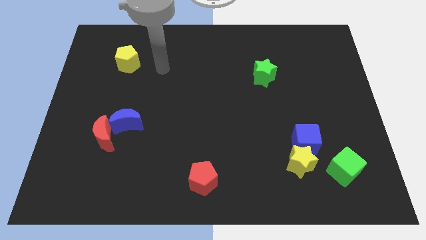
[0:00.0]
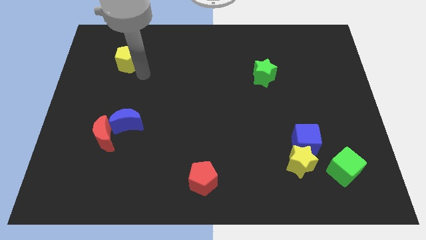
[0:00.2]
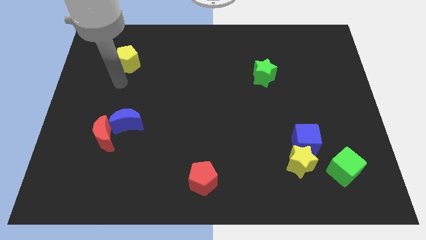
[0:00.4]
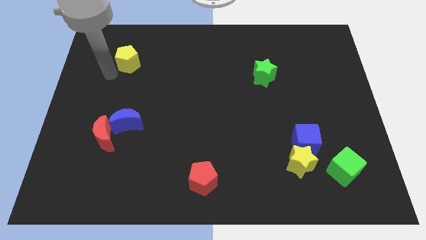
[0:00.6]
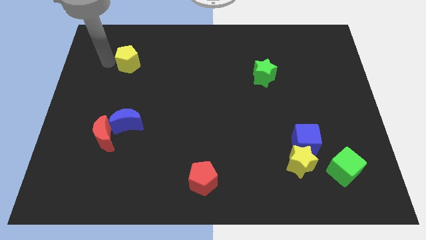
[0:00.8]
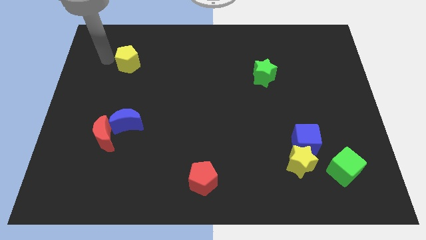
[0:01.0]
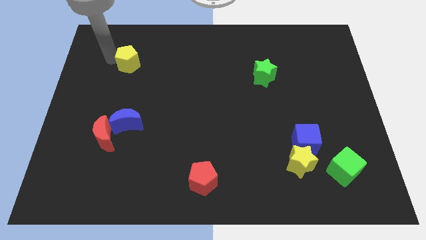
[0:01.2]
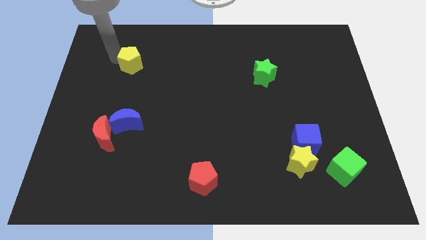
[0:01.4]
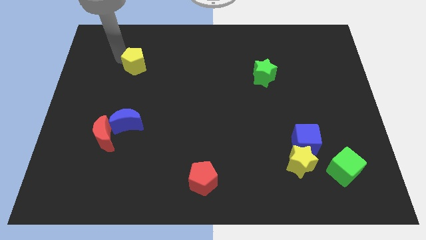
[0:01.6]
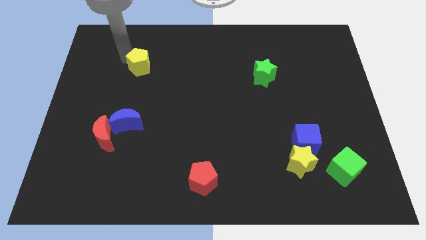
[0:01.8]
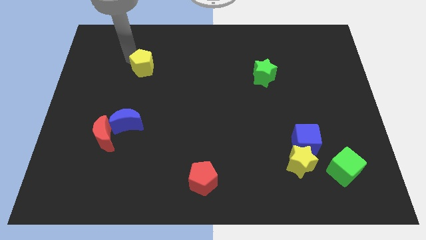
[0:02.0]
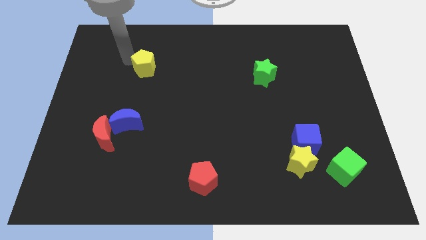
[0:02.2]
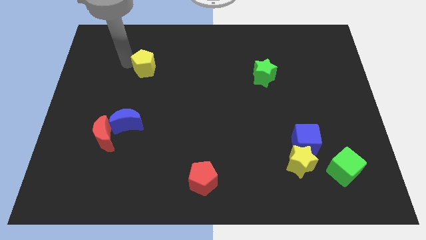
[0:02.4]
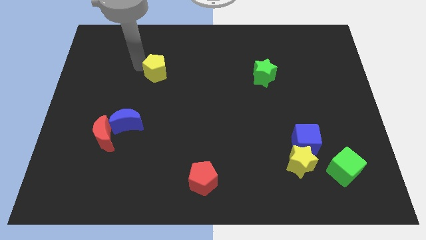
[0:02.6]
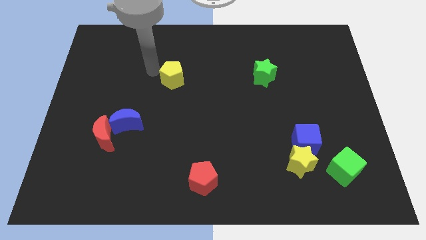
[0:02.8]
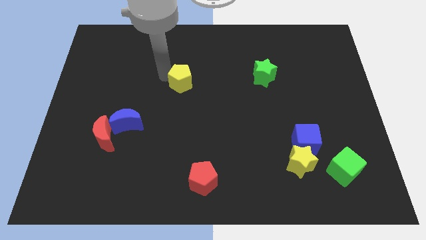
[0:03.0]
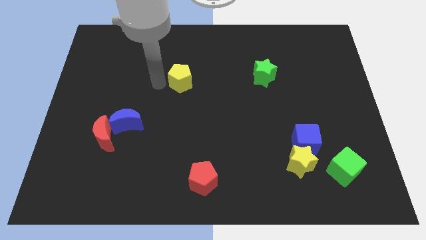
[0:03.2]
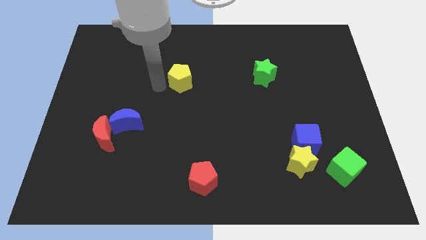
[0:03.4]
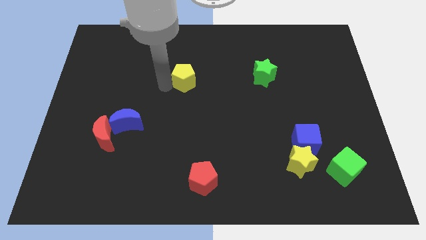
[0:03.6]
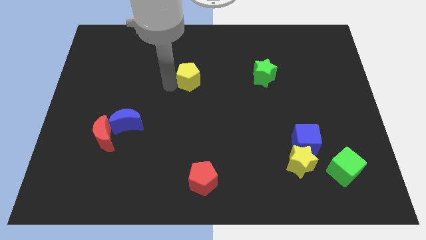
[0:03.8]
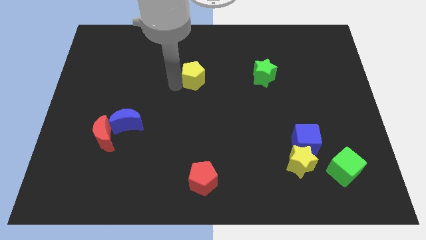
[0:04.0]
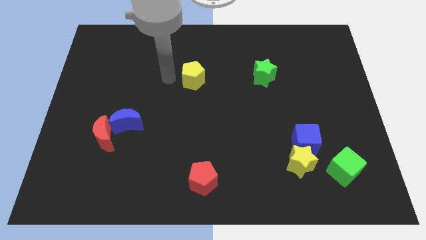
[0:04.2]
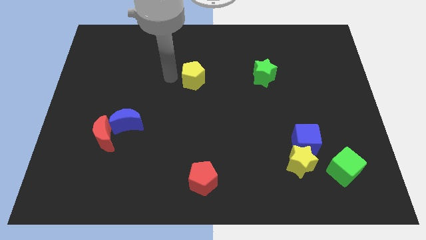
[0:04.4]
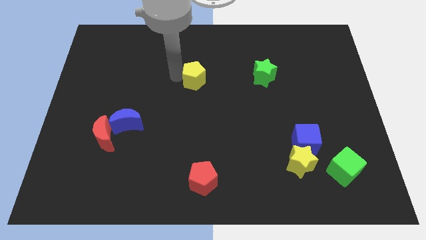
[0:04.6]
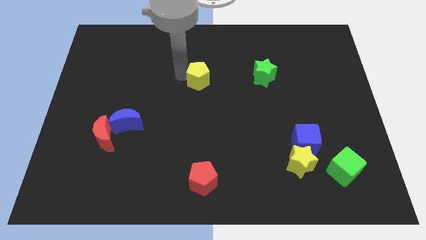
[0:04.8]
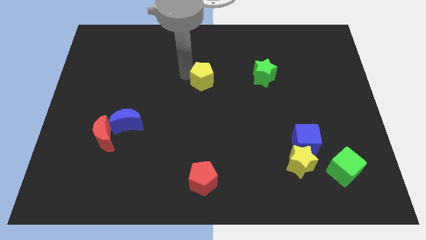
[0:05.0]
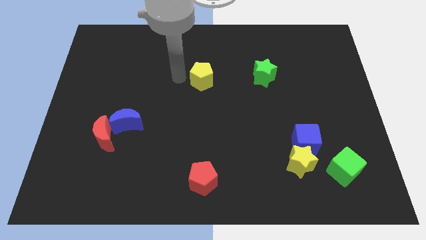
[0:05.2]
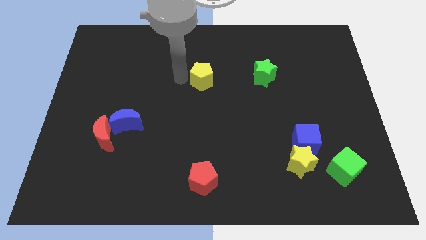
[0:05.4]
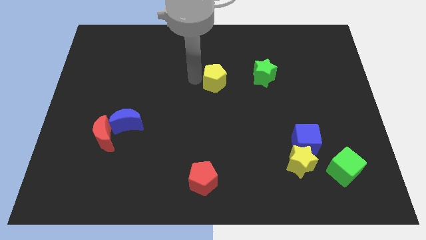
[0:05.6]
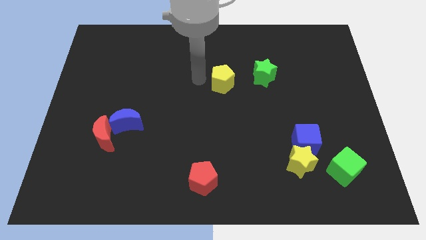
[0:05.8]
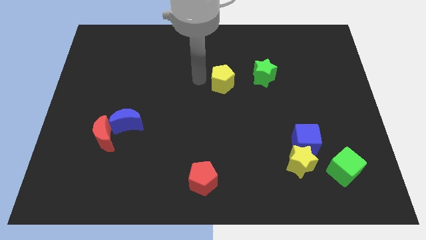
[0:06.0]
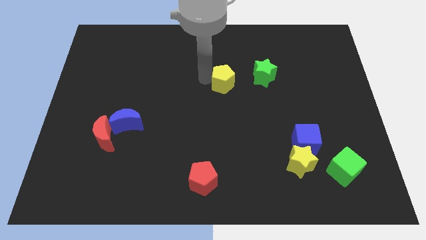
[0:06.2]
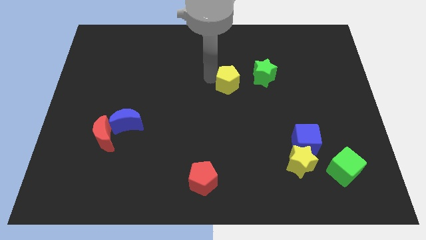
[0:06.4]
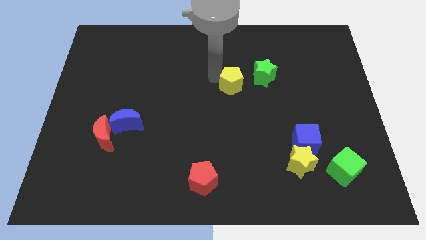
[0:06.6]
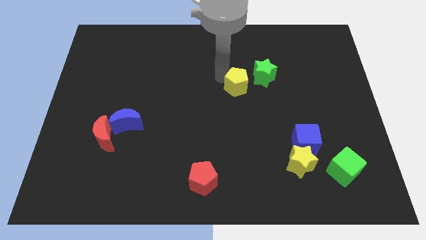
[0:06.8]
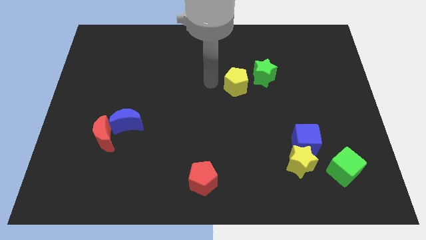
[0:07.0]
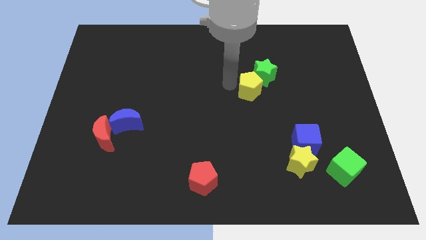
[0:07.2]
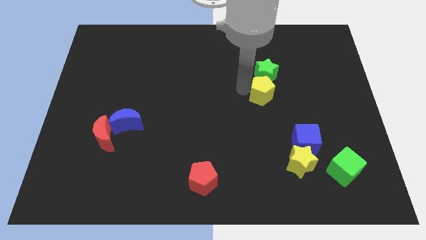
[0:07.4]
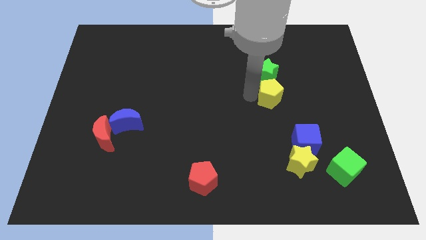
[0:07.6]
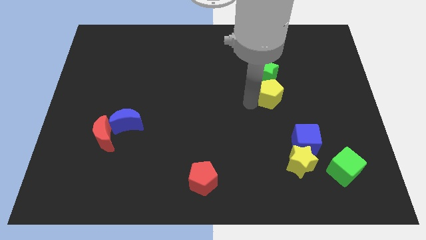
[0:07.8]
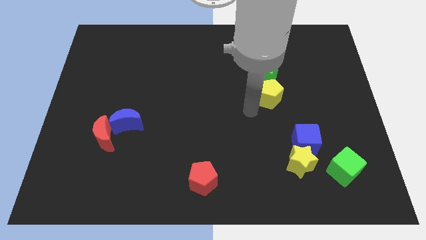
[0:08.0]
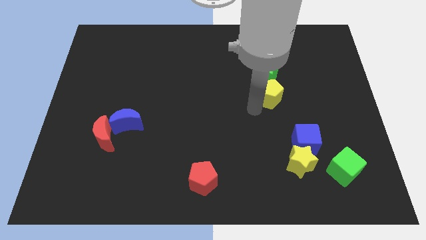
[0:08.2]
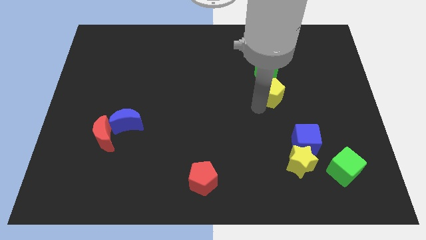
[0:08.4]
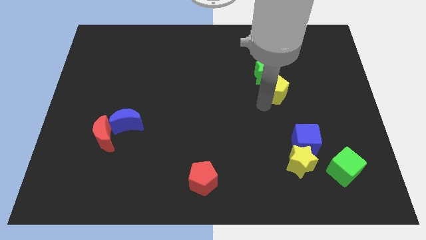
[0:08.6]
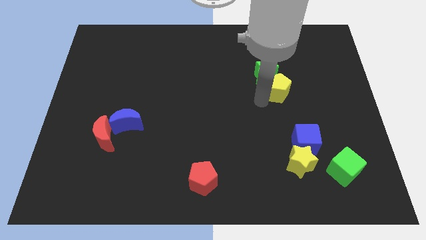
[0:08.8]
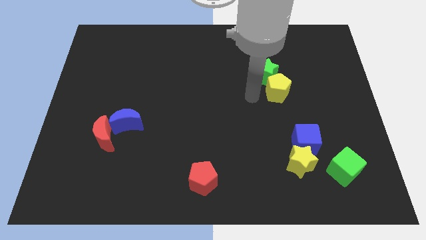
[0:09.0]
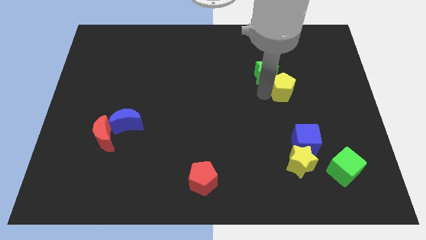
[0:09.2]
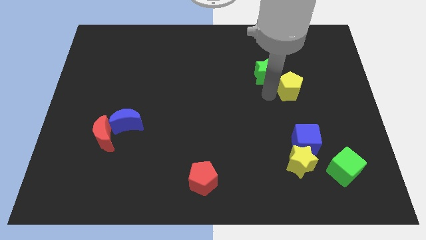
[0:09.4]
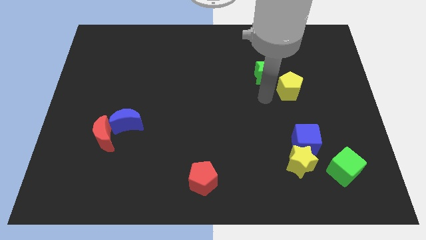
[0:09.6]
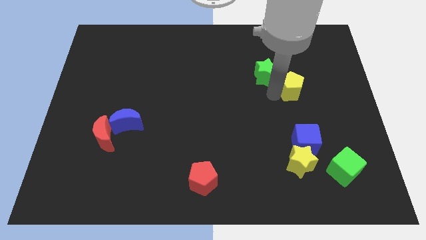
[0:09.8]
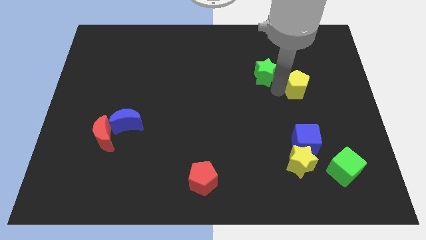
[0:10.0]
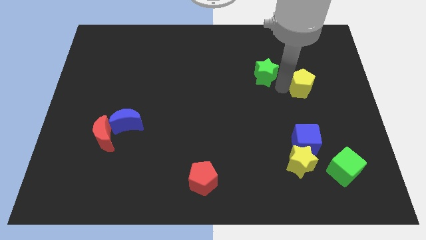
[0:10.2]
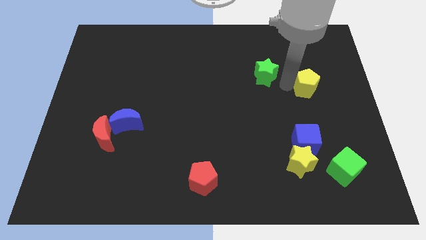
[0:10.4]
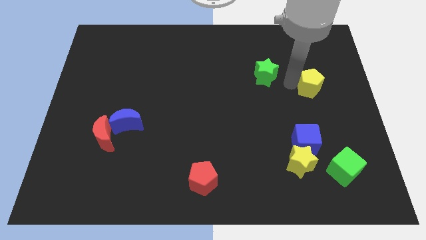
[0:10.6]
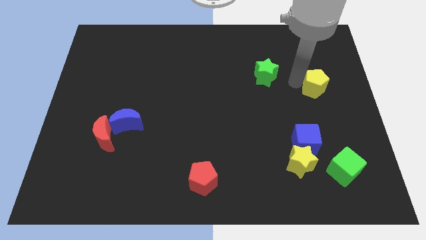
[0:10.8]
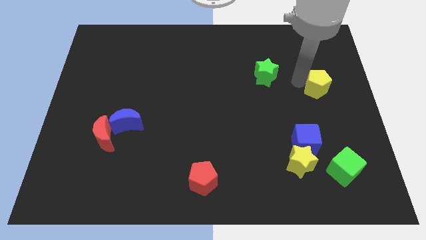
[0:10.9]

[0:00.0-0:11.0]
push the yellow pentagon to the right side

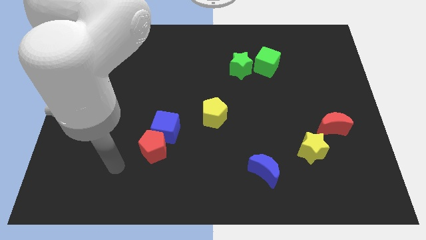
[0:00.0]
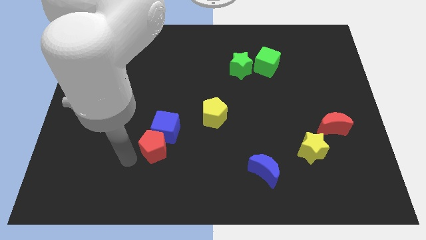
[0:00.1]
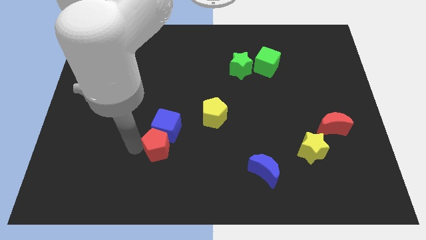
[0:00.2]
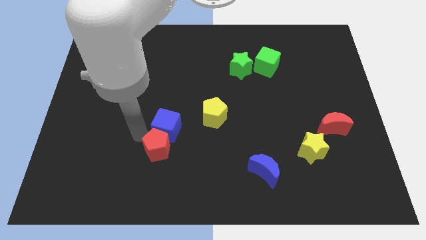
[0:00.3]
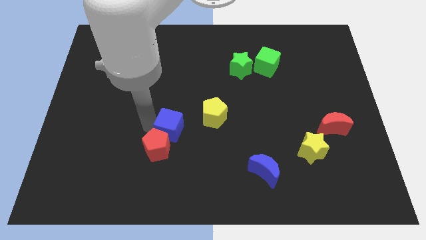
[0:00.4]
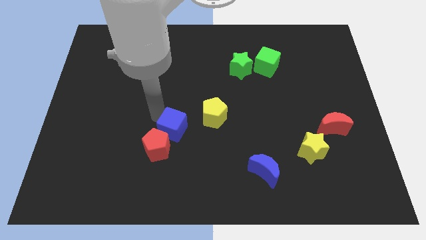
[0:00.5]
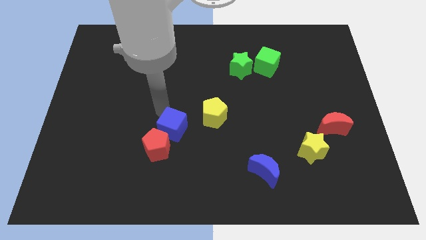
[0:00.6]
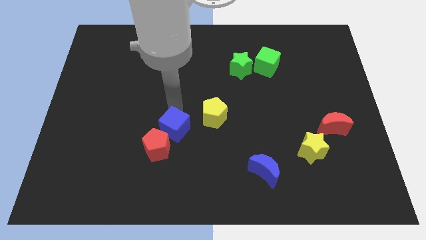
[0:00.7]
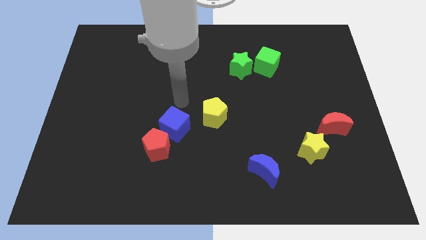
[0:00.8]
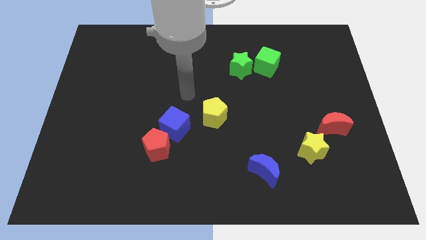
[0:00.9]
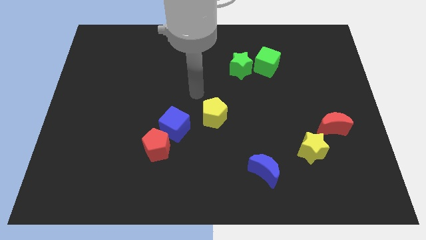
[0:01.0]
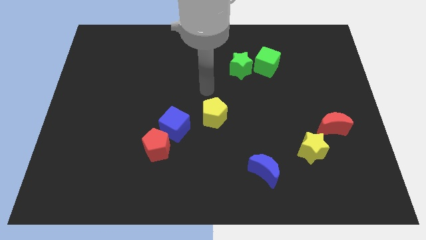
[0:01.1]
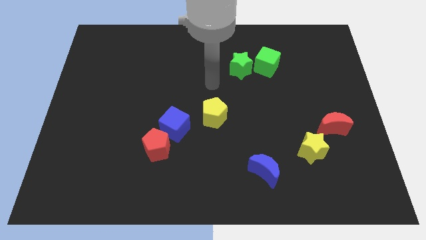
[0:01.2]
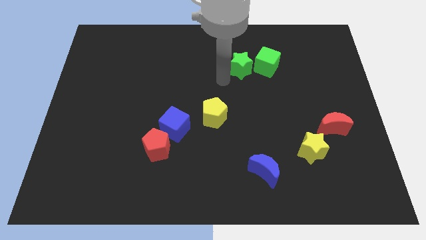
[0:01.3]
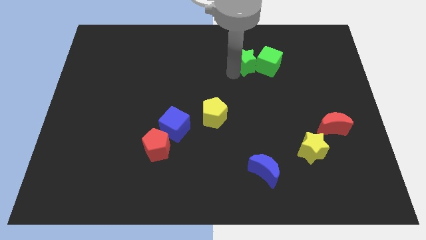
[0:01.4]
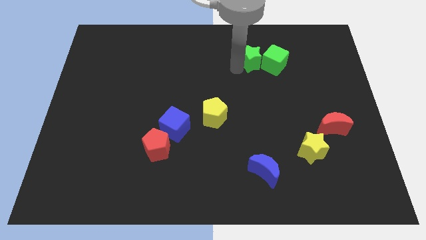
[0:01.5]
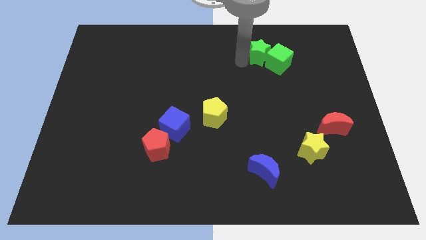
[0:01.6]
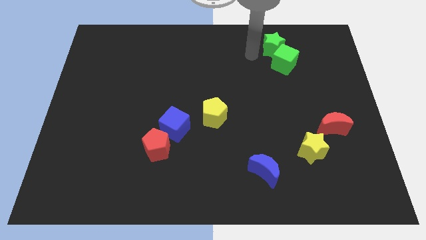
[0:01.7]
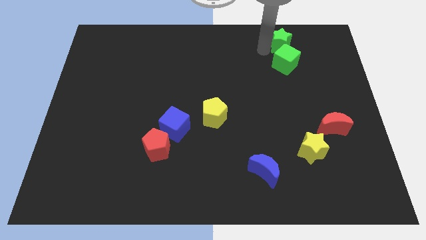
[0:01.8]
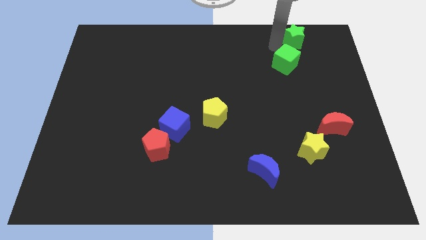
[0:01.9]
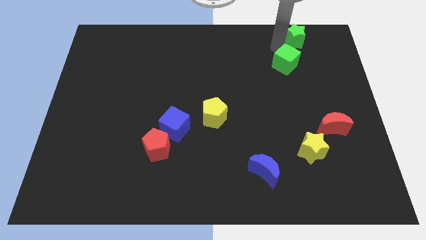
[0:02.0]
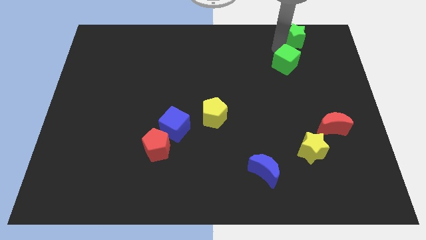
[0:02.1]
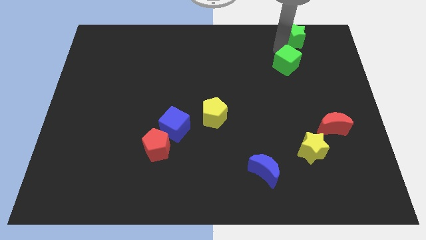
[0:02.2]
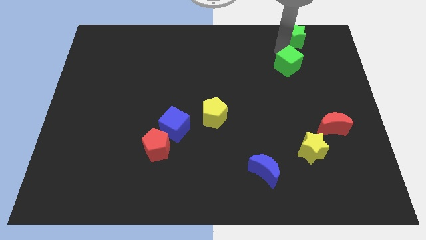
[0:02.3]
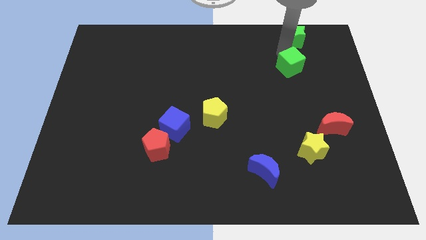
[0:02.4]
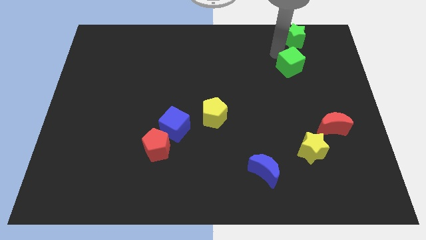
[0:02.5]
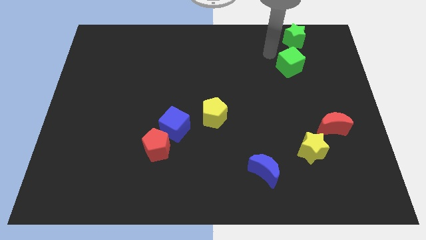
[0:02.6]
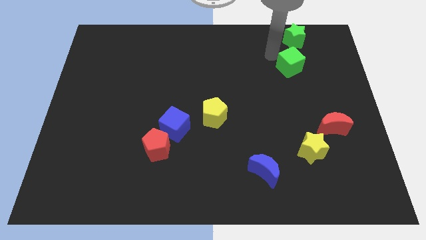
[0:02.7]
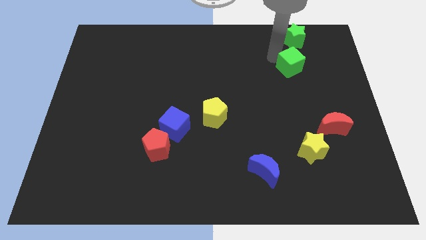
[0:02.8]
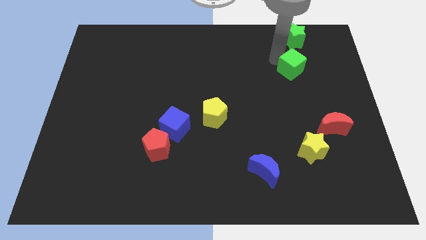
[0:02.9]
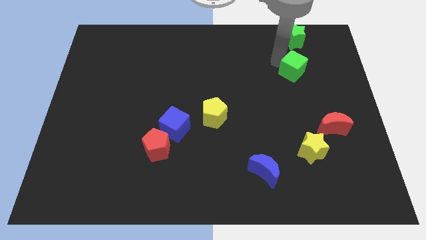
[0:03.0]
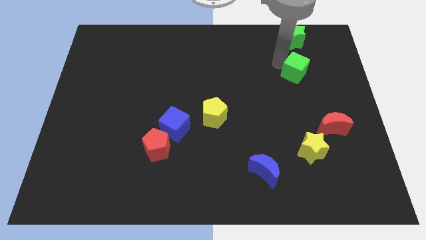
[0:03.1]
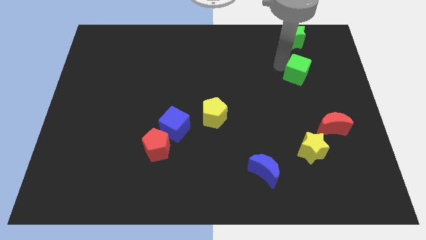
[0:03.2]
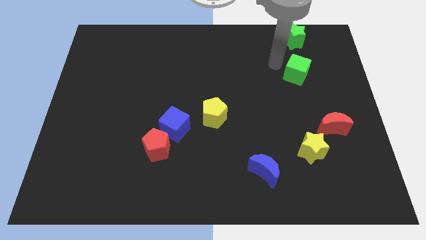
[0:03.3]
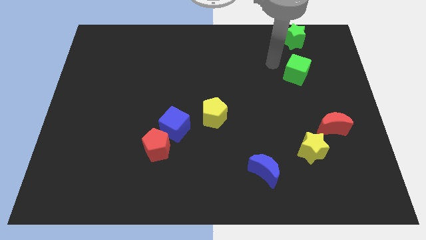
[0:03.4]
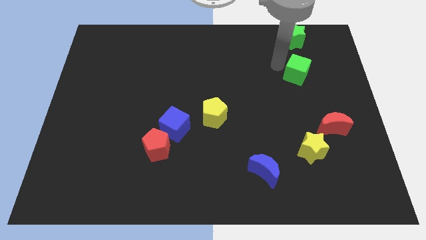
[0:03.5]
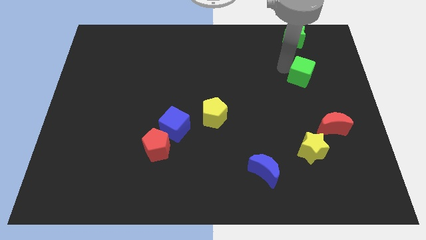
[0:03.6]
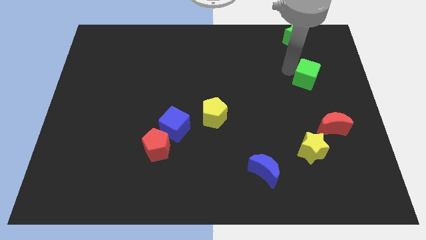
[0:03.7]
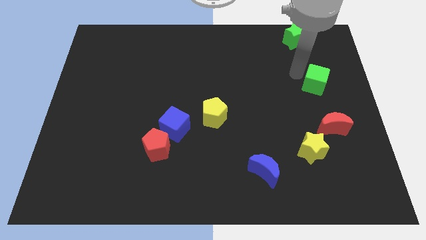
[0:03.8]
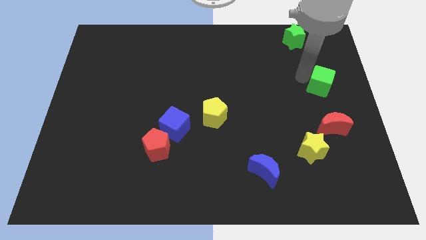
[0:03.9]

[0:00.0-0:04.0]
put the green cube to the center right
